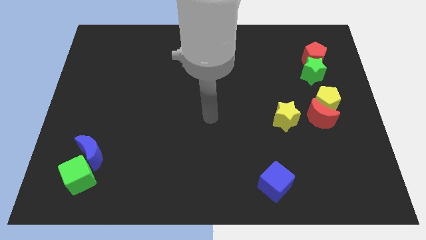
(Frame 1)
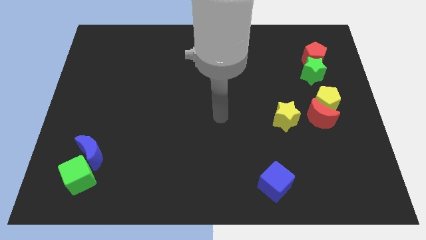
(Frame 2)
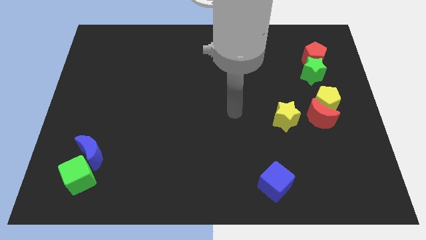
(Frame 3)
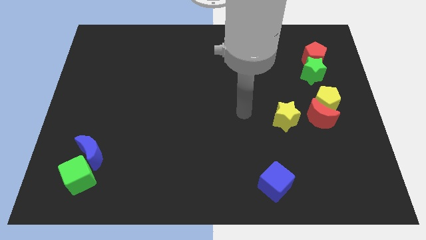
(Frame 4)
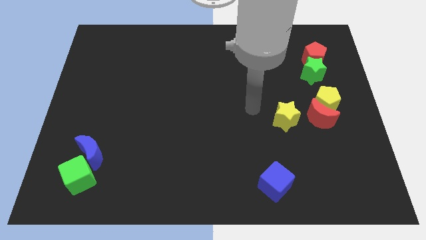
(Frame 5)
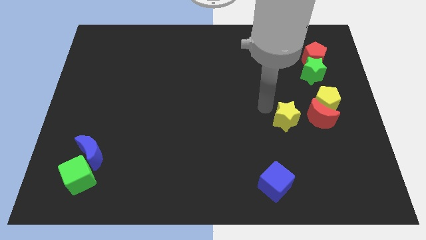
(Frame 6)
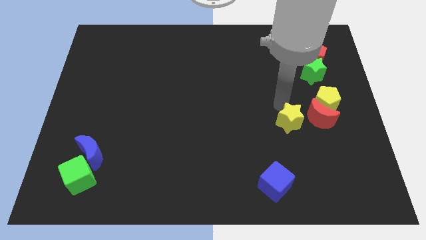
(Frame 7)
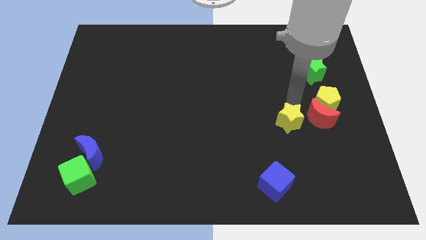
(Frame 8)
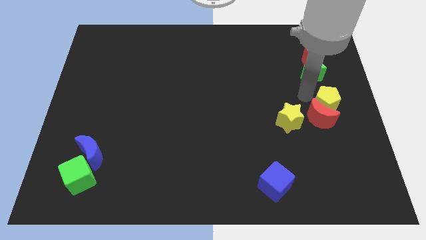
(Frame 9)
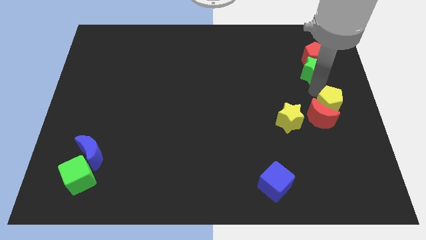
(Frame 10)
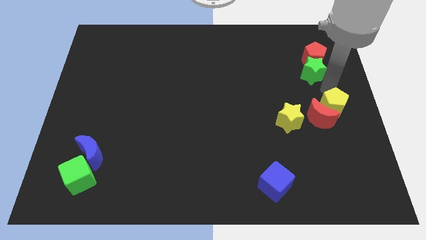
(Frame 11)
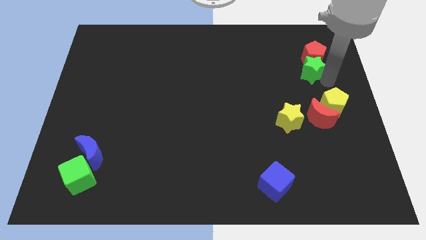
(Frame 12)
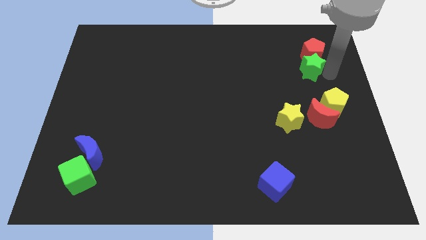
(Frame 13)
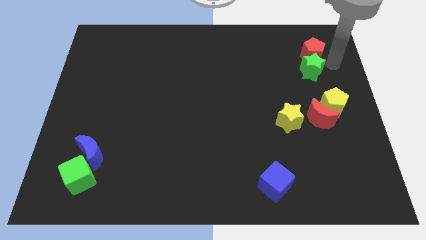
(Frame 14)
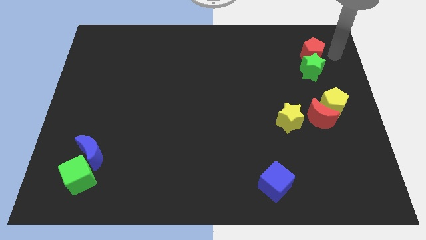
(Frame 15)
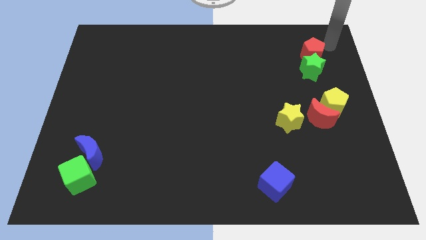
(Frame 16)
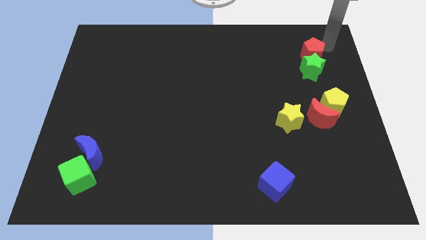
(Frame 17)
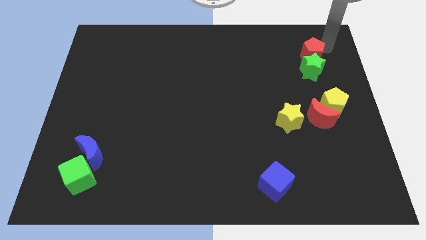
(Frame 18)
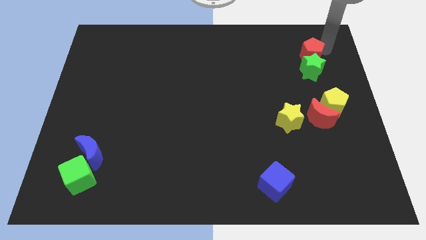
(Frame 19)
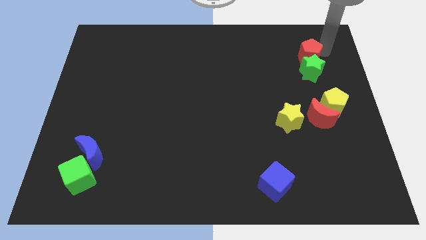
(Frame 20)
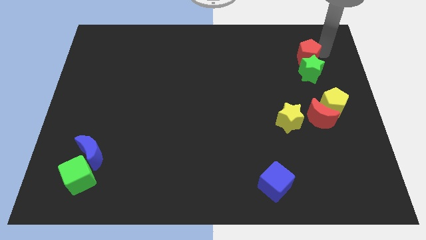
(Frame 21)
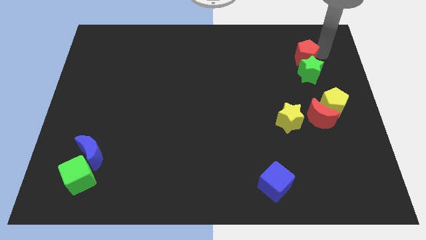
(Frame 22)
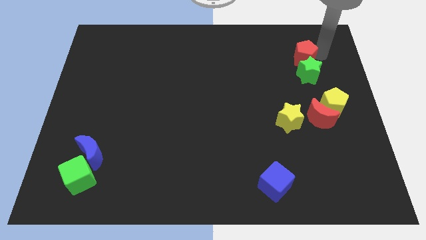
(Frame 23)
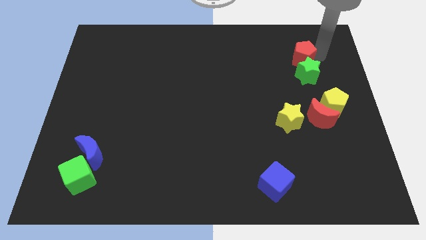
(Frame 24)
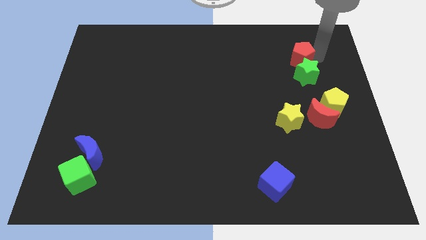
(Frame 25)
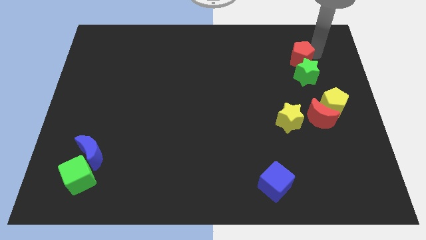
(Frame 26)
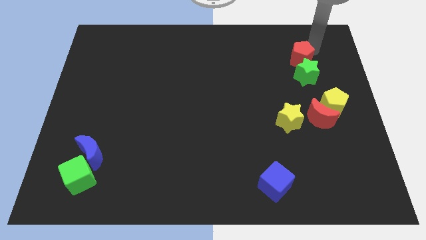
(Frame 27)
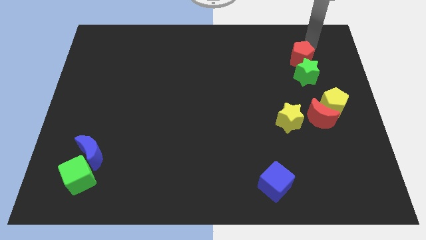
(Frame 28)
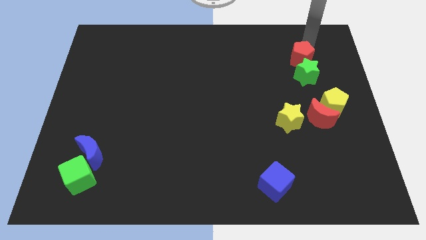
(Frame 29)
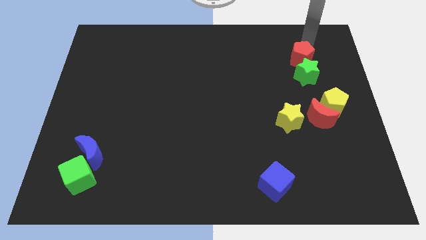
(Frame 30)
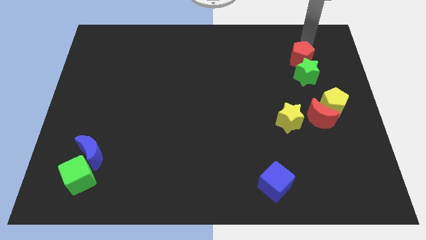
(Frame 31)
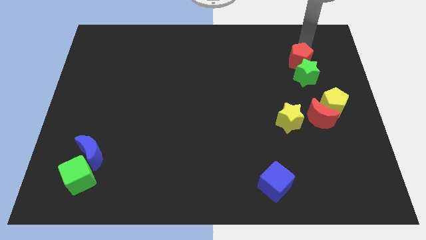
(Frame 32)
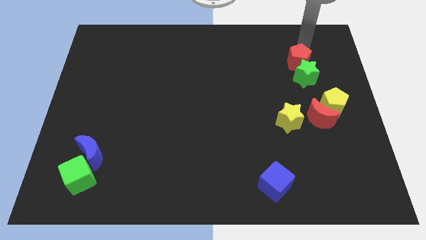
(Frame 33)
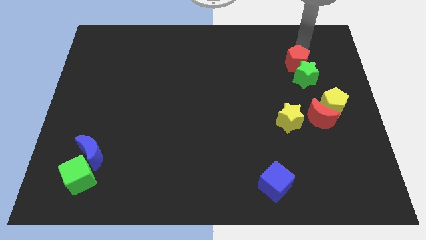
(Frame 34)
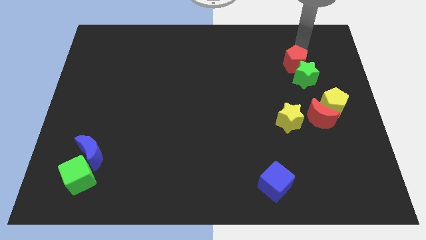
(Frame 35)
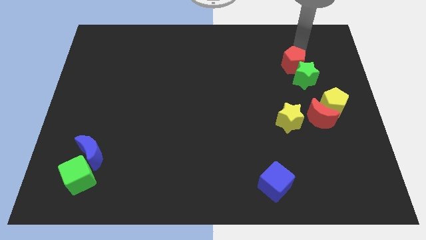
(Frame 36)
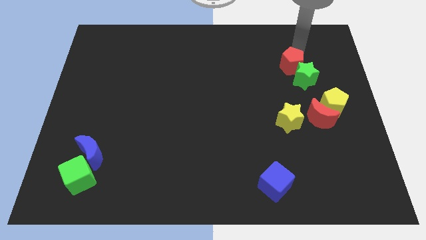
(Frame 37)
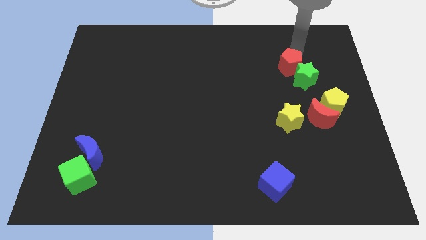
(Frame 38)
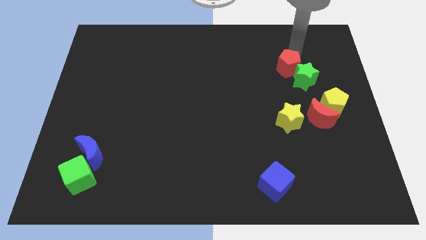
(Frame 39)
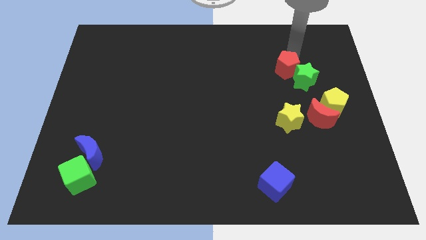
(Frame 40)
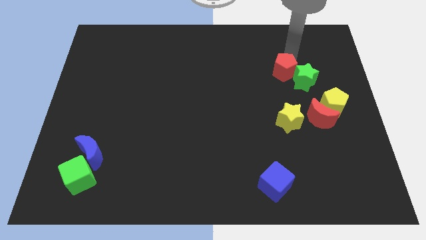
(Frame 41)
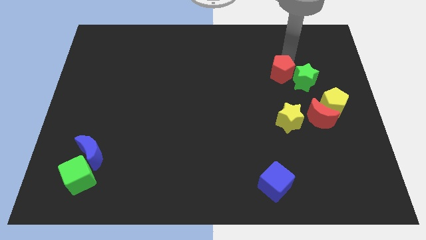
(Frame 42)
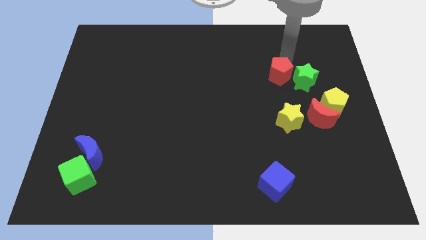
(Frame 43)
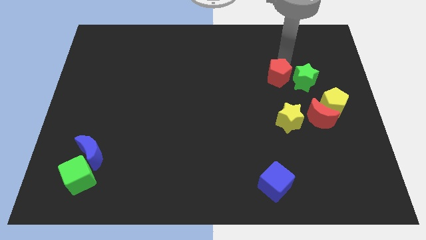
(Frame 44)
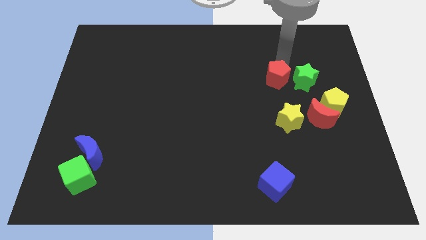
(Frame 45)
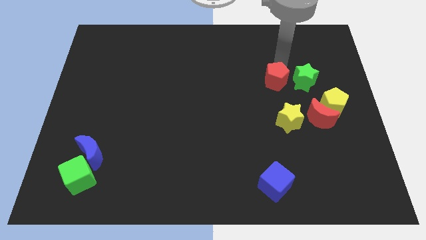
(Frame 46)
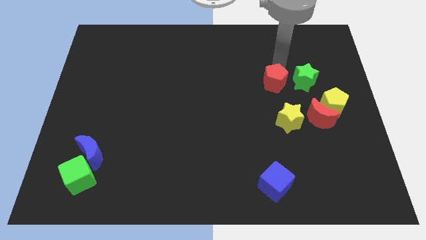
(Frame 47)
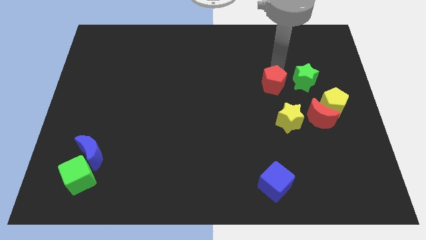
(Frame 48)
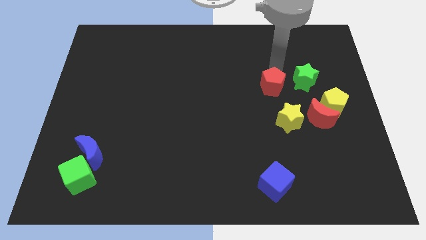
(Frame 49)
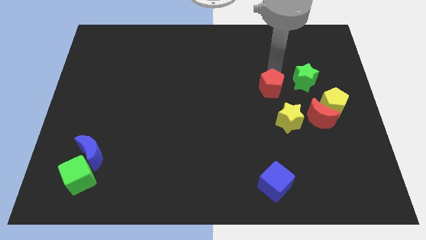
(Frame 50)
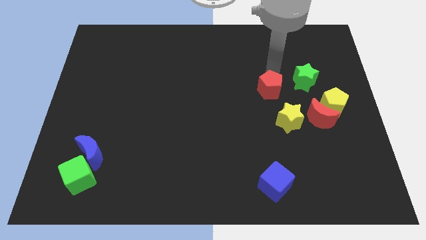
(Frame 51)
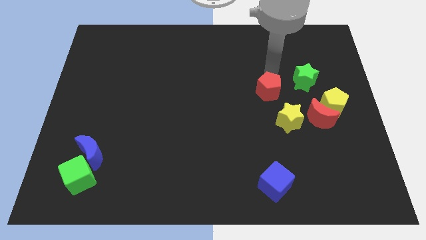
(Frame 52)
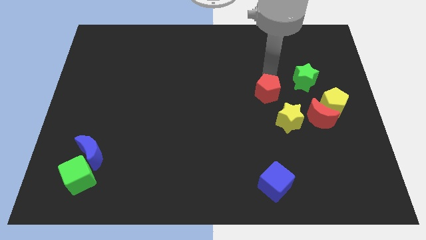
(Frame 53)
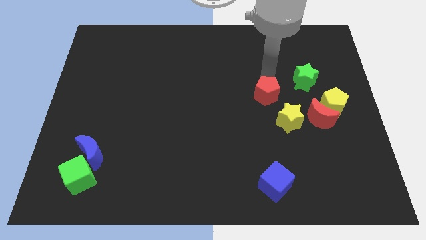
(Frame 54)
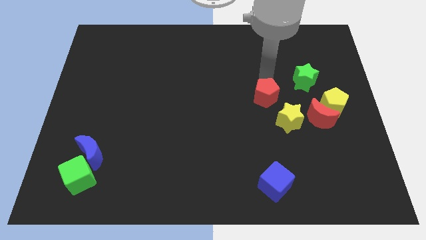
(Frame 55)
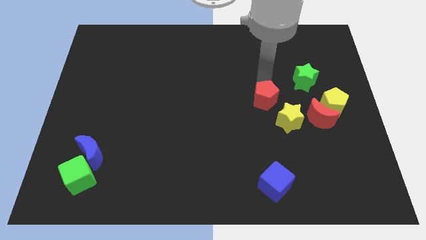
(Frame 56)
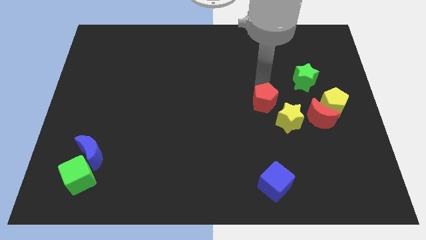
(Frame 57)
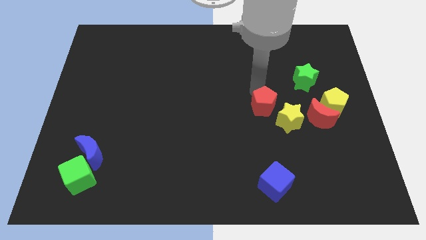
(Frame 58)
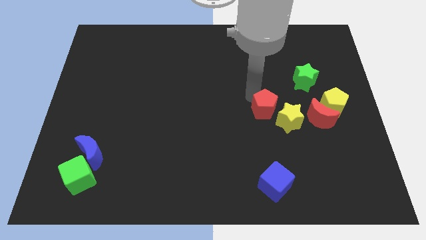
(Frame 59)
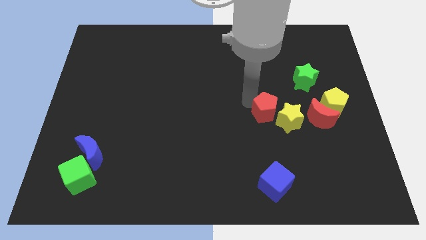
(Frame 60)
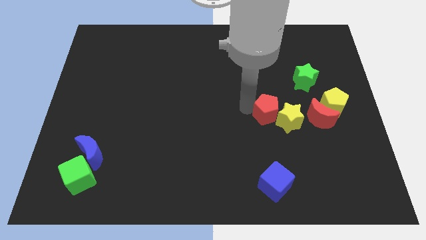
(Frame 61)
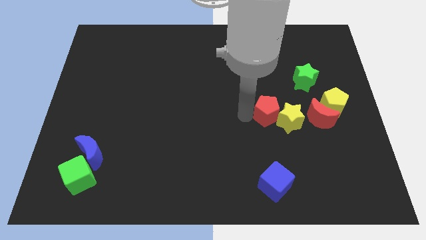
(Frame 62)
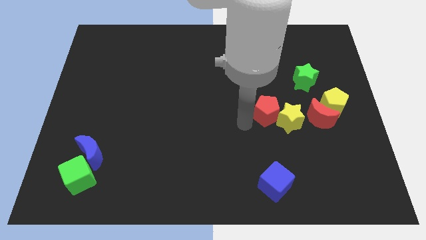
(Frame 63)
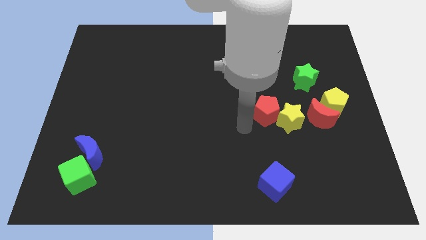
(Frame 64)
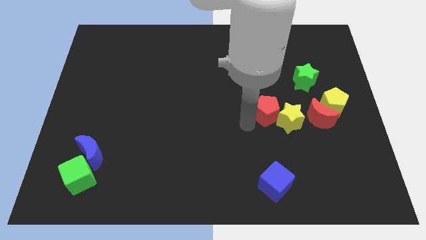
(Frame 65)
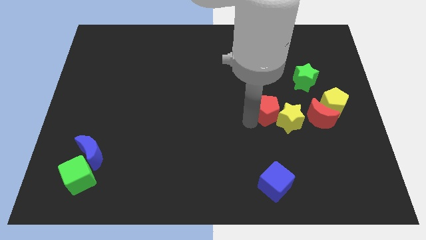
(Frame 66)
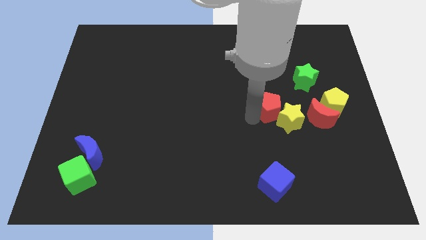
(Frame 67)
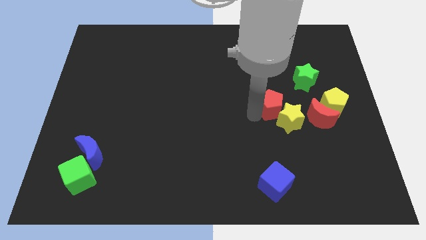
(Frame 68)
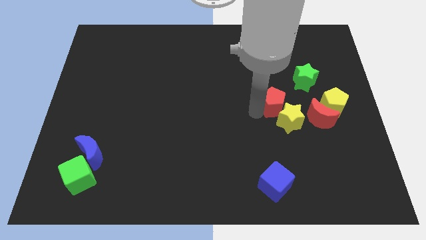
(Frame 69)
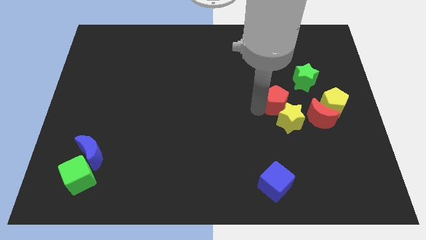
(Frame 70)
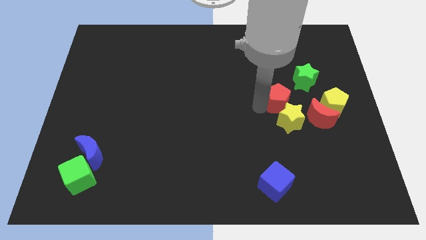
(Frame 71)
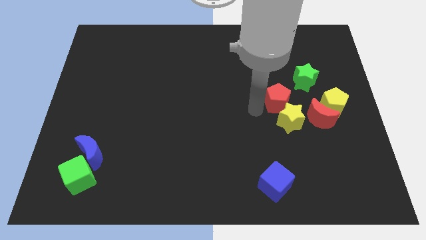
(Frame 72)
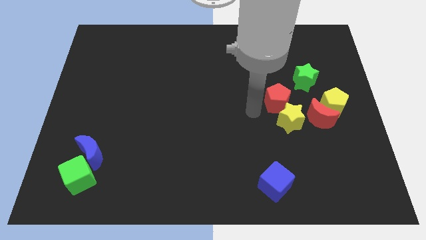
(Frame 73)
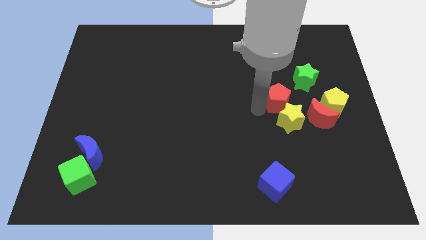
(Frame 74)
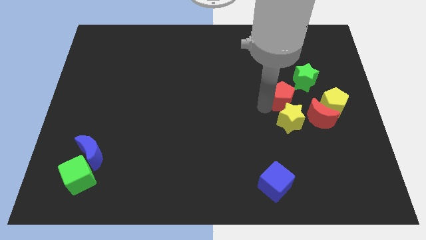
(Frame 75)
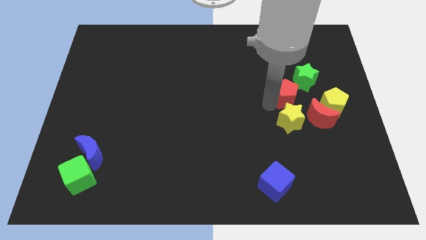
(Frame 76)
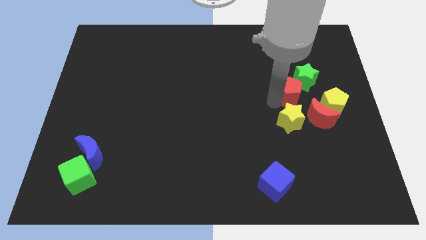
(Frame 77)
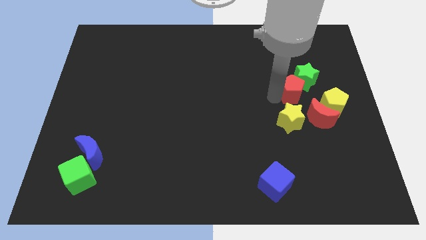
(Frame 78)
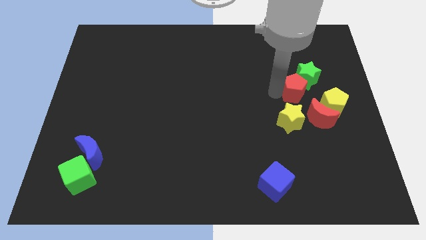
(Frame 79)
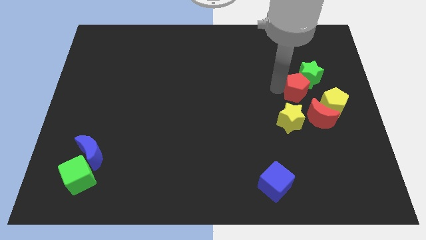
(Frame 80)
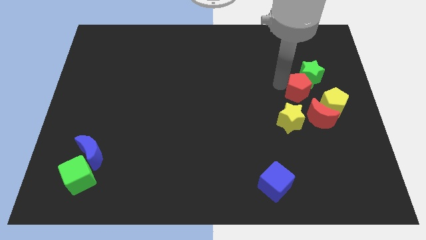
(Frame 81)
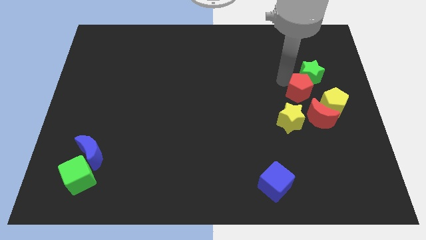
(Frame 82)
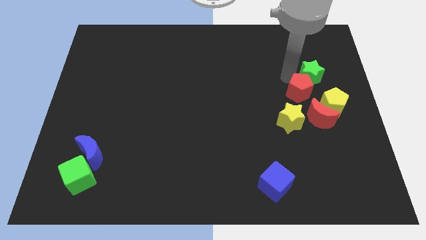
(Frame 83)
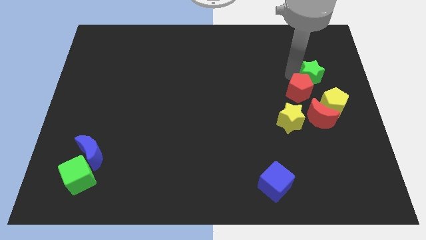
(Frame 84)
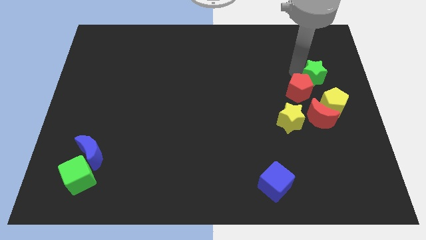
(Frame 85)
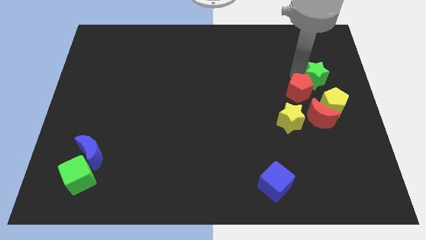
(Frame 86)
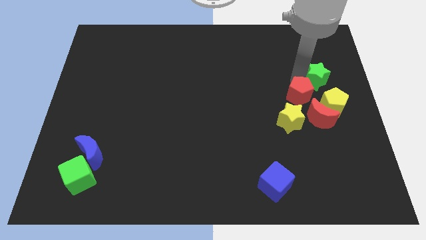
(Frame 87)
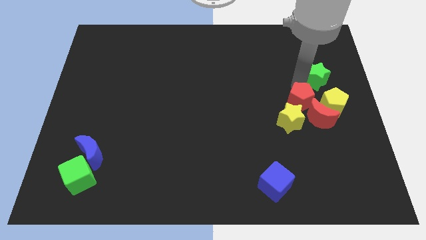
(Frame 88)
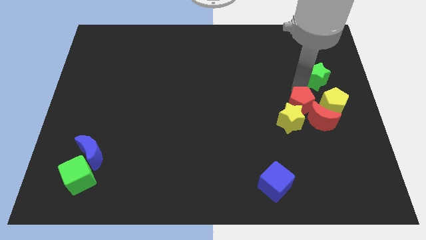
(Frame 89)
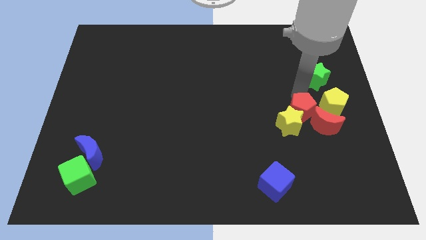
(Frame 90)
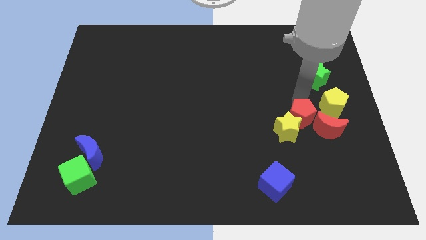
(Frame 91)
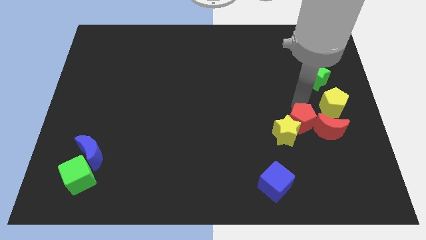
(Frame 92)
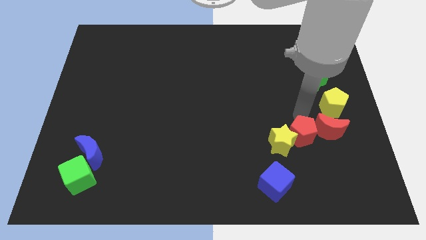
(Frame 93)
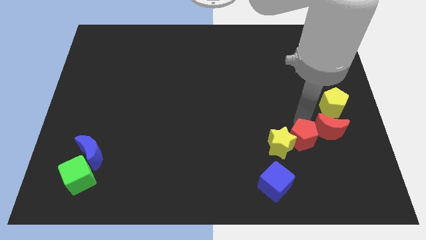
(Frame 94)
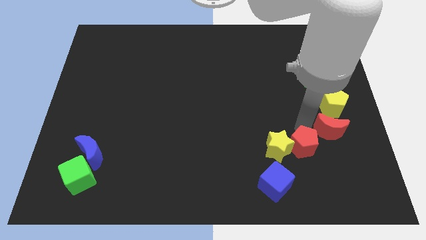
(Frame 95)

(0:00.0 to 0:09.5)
push the red pentagon to the top right of the blue cube
